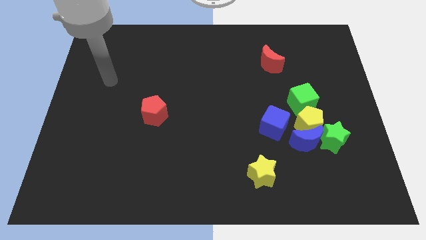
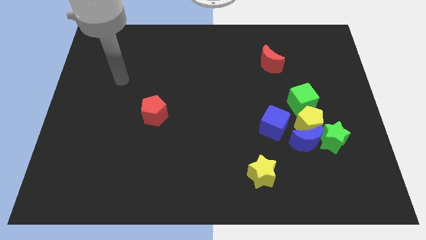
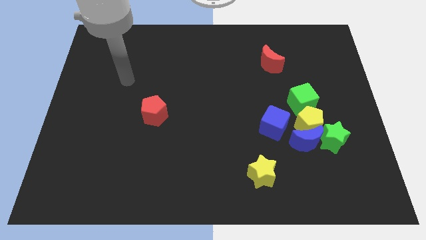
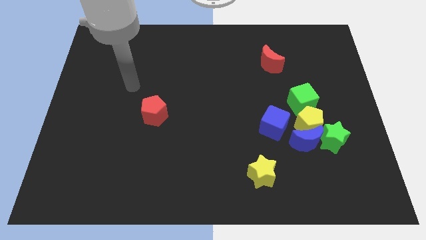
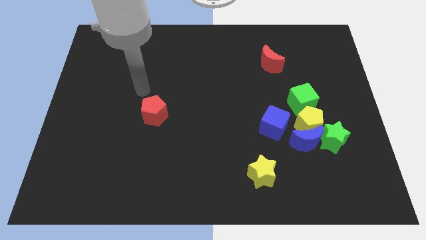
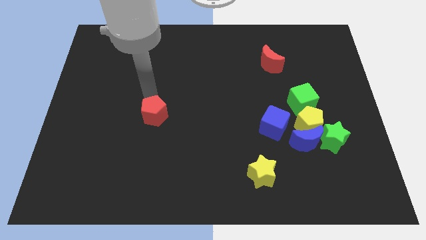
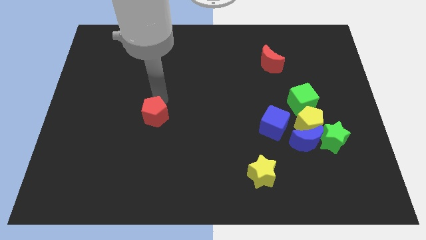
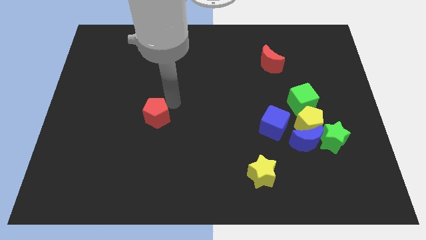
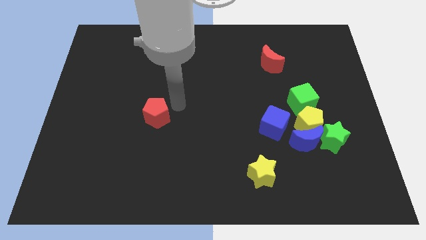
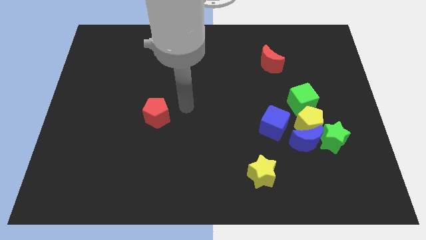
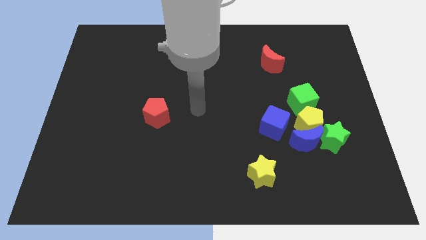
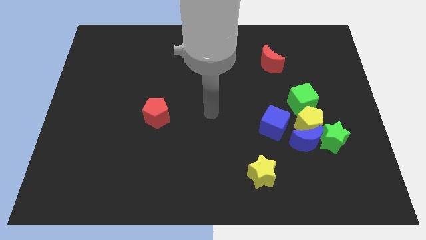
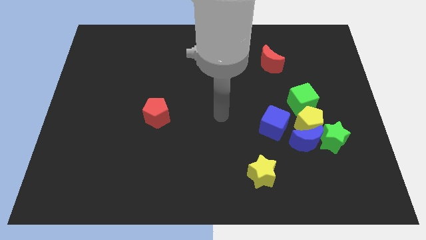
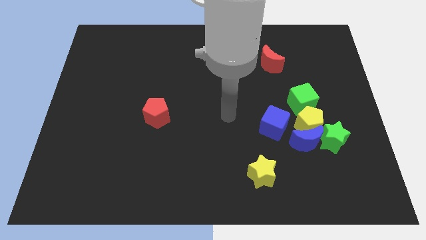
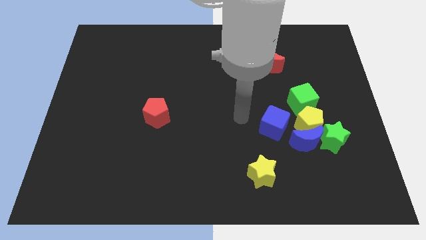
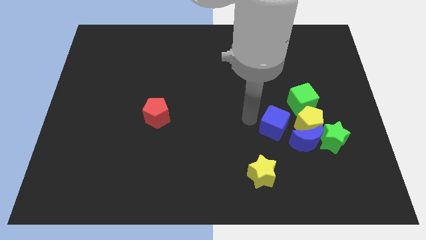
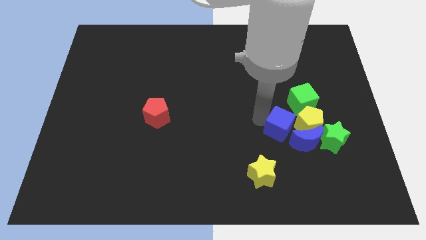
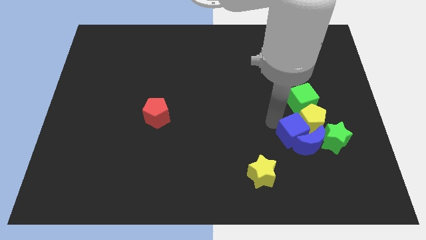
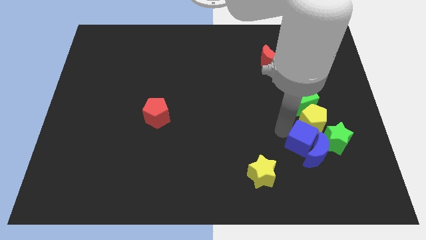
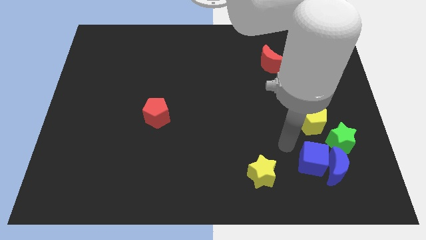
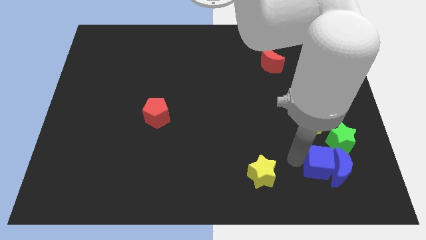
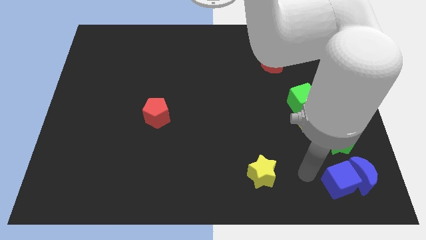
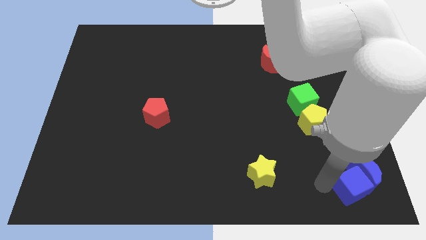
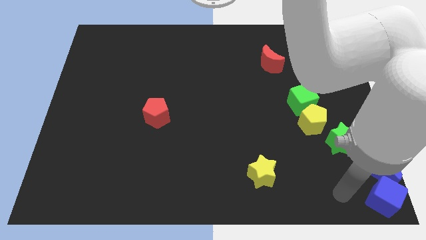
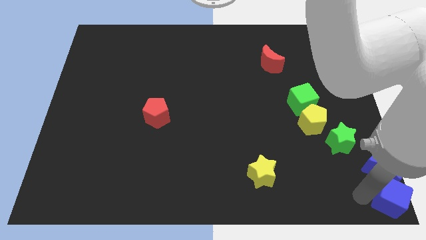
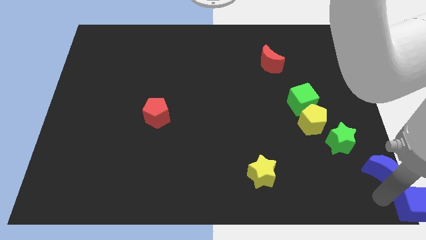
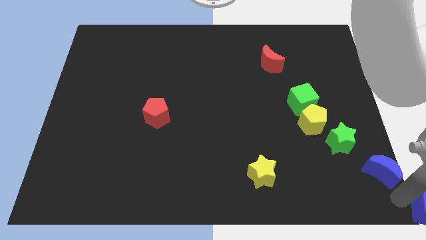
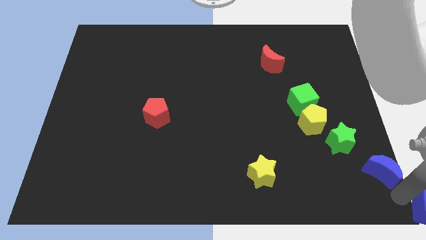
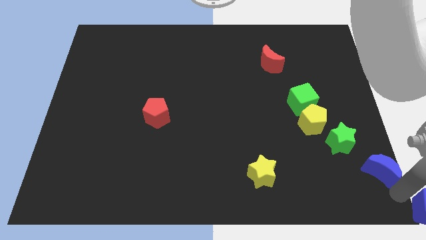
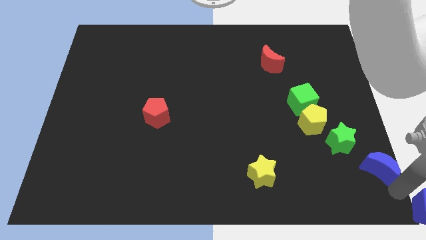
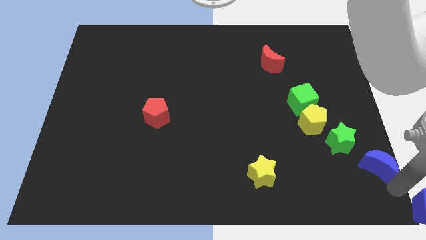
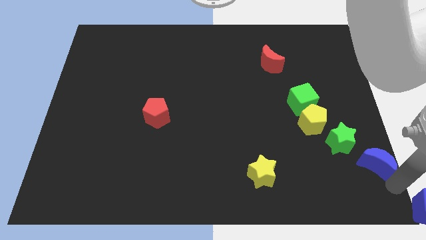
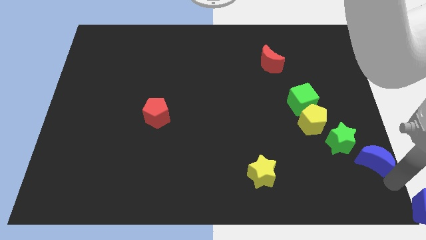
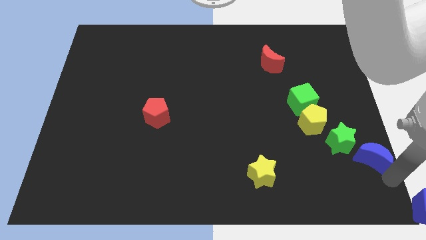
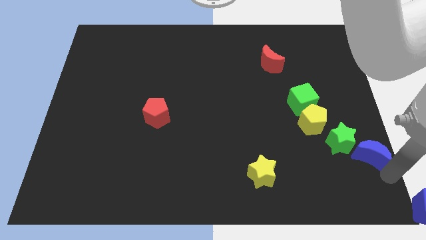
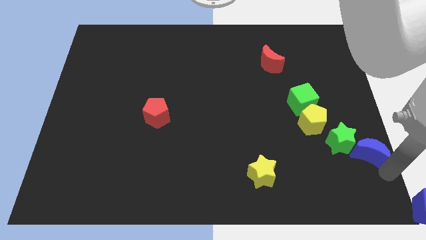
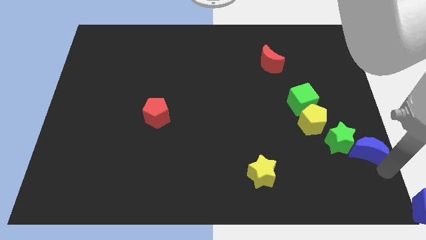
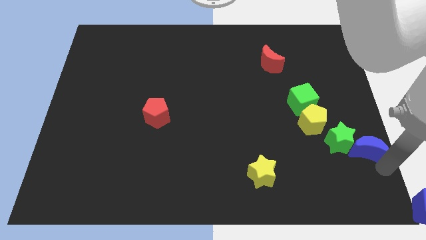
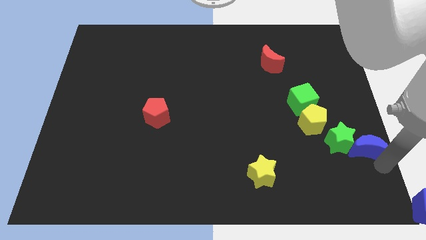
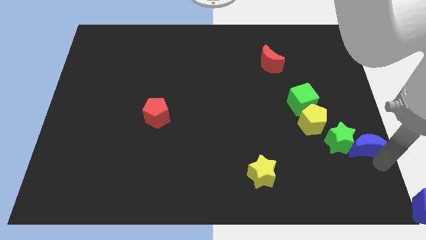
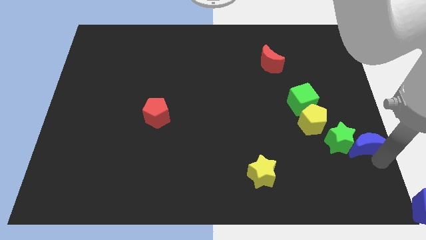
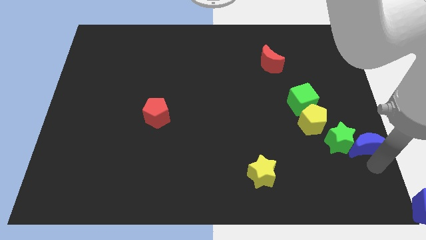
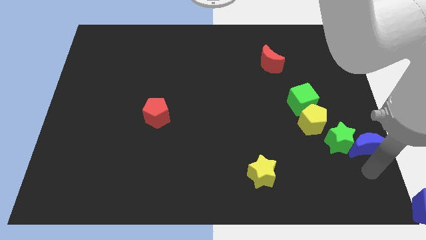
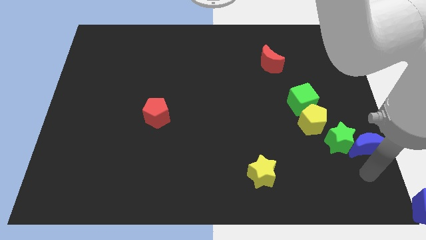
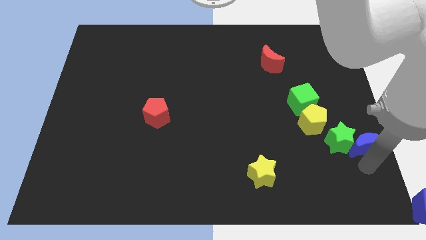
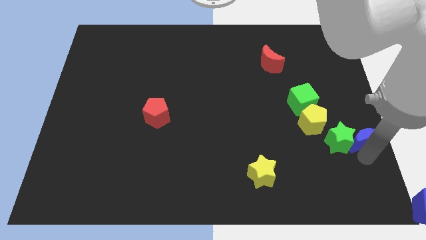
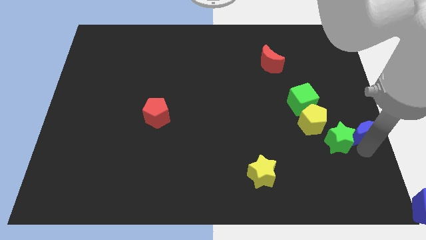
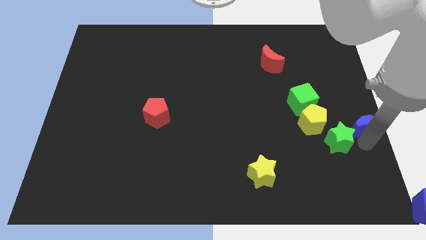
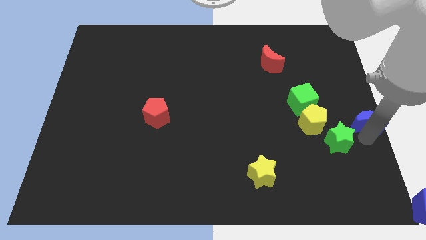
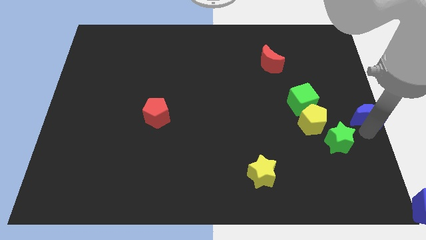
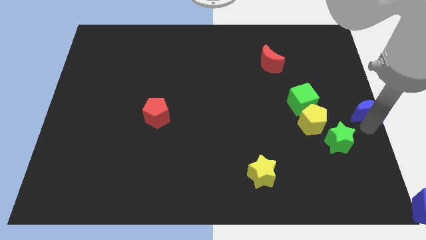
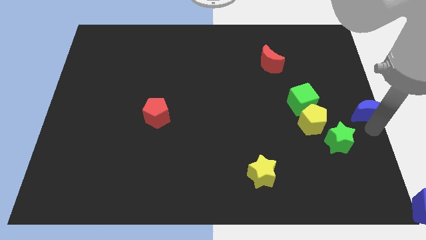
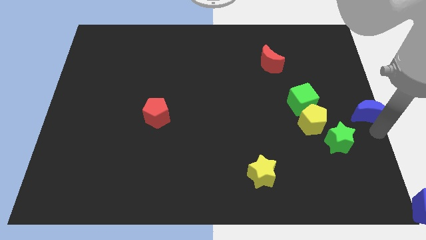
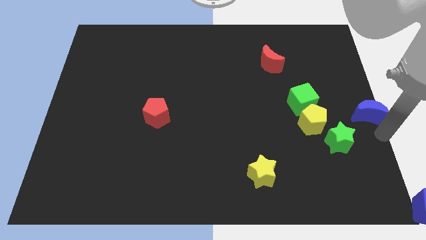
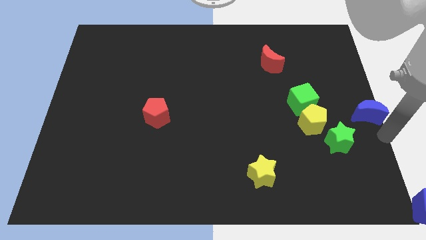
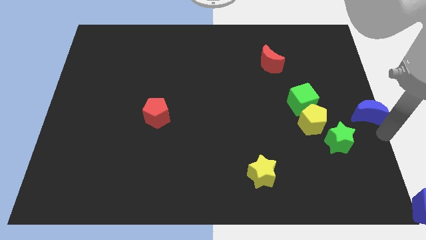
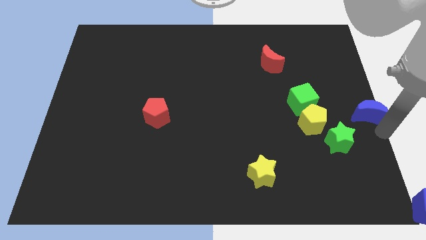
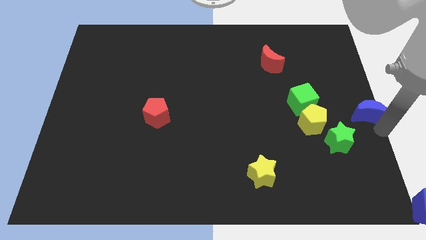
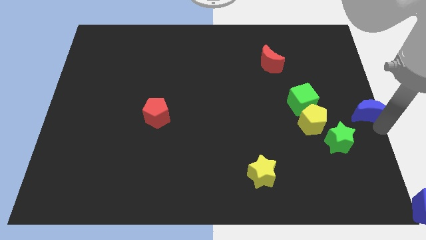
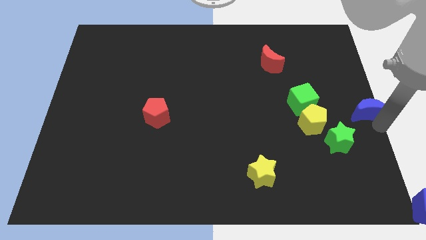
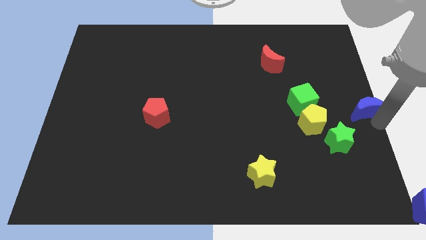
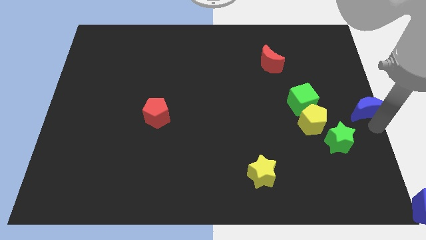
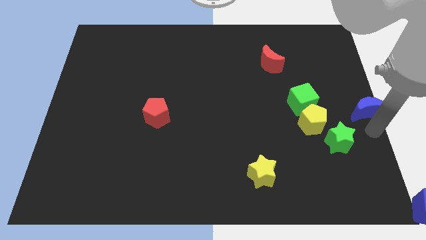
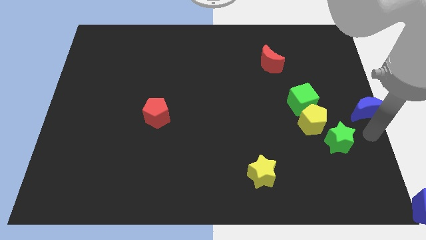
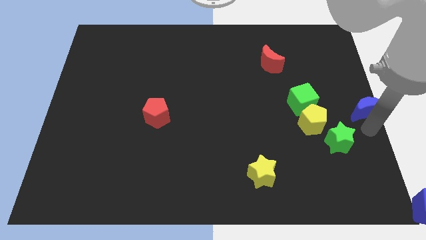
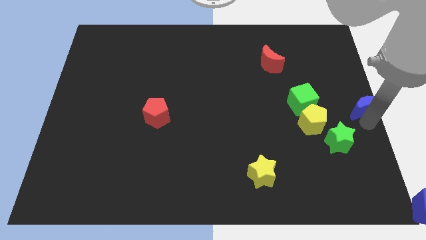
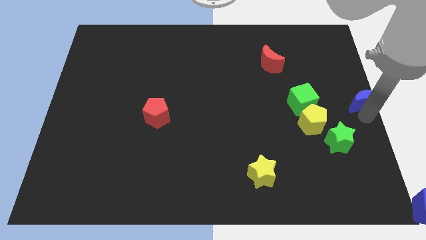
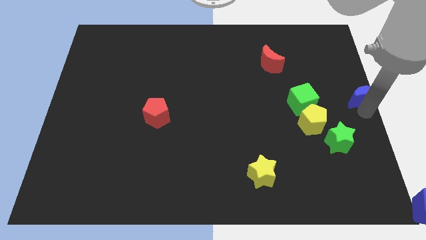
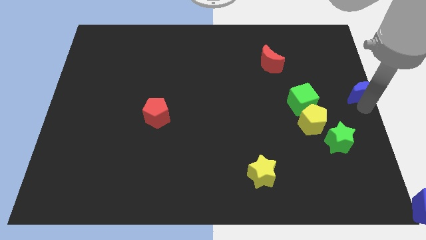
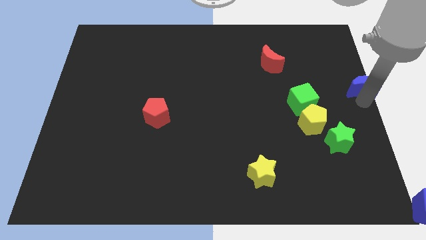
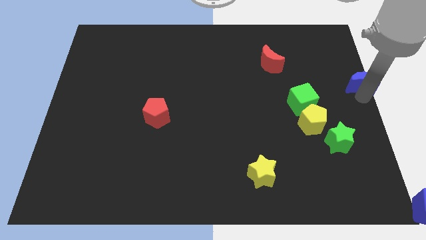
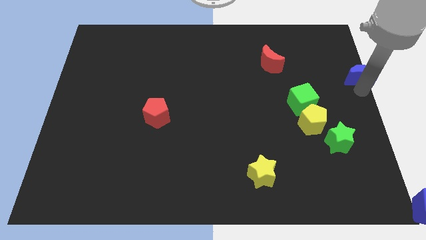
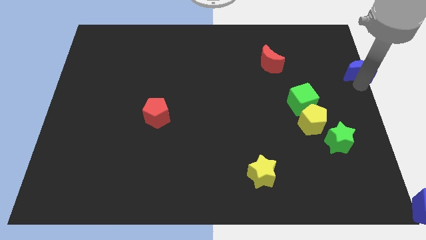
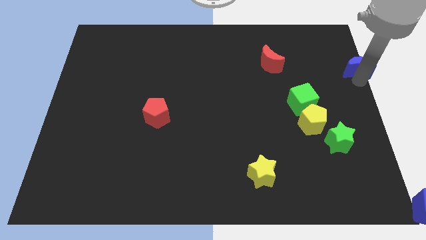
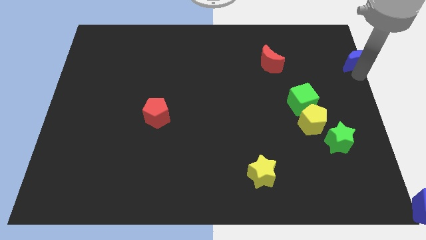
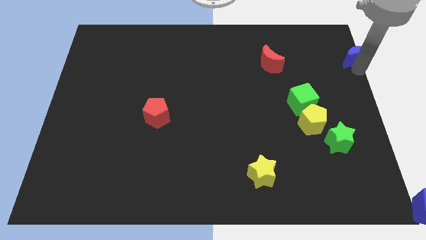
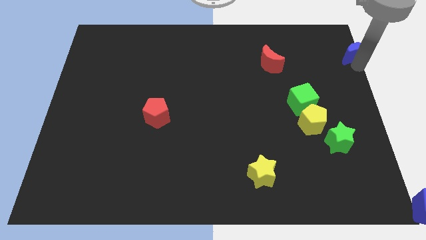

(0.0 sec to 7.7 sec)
slide the blue moon to the top right corner
